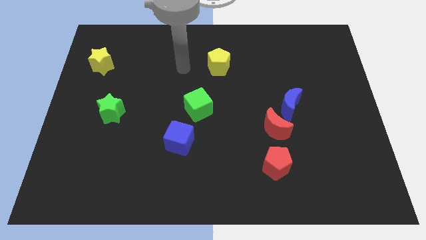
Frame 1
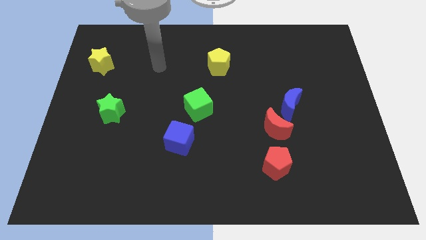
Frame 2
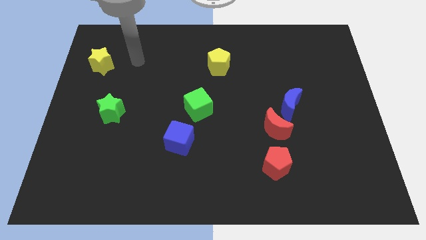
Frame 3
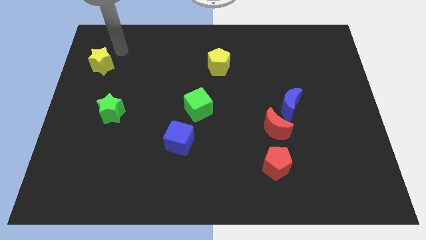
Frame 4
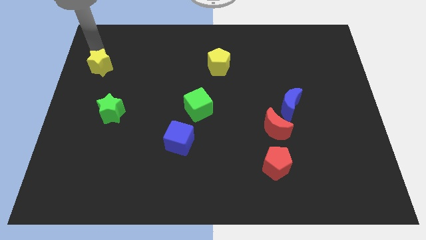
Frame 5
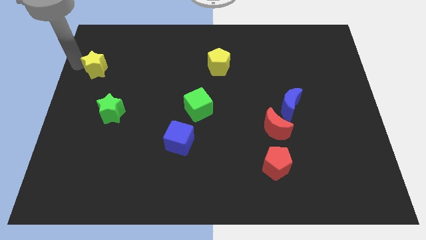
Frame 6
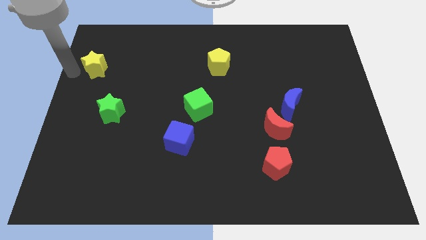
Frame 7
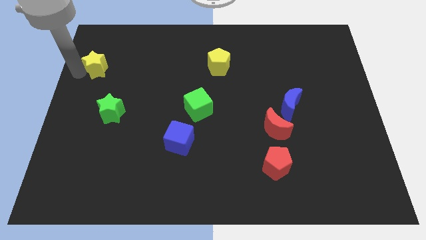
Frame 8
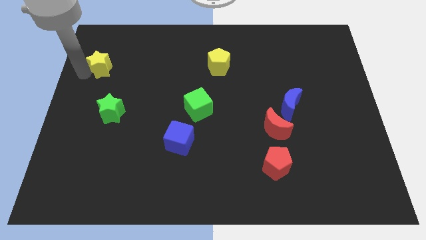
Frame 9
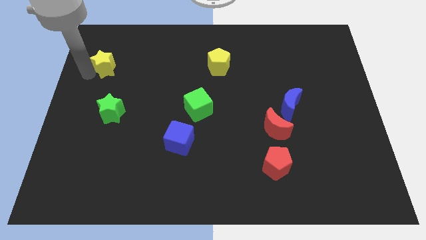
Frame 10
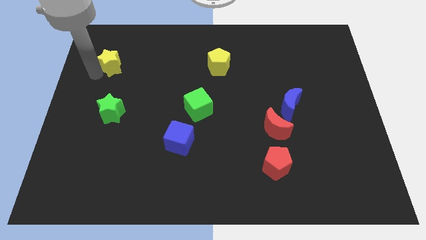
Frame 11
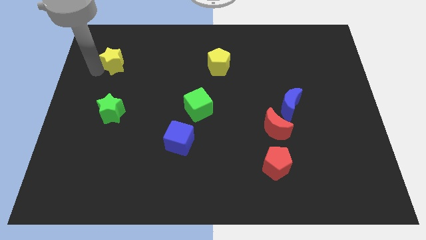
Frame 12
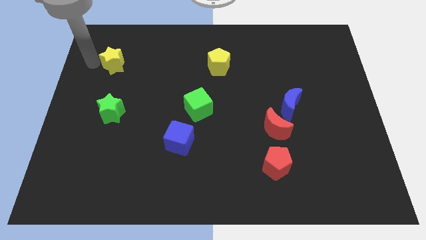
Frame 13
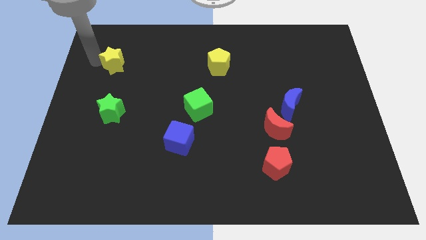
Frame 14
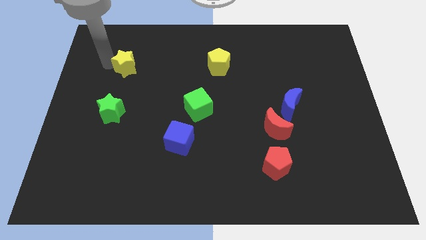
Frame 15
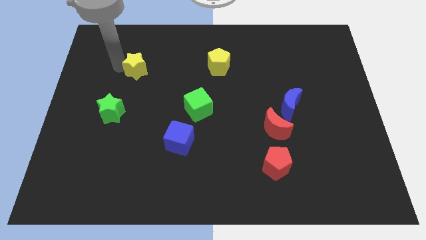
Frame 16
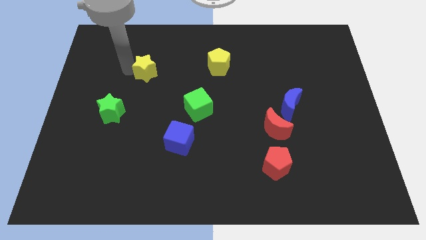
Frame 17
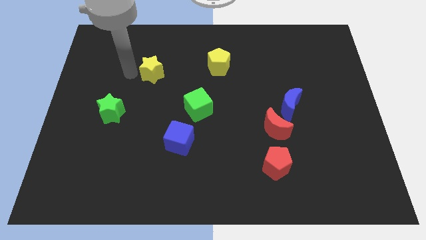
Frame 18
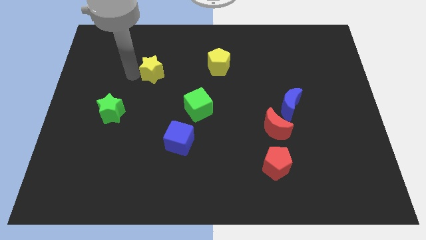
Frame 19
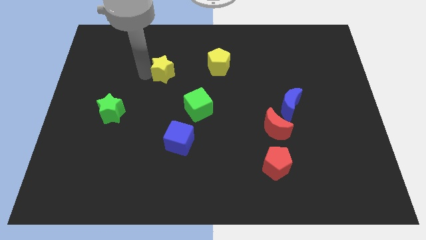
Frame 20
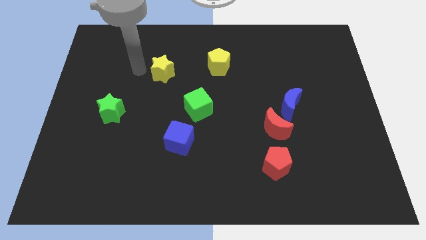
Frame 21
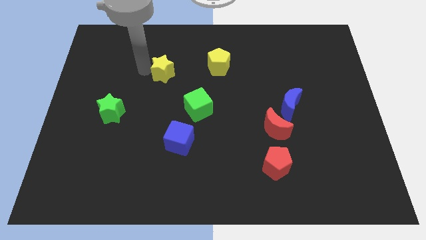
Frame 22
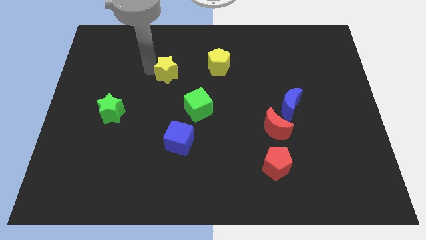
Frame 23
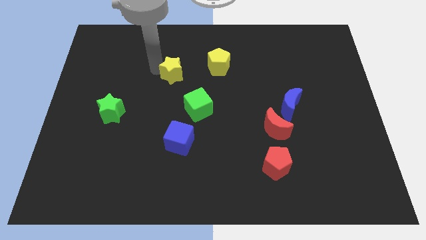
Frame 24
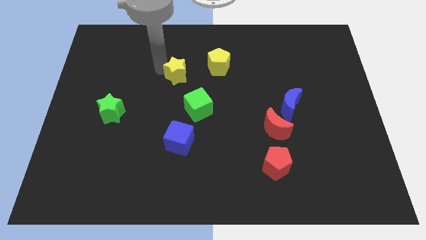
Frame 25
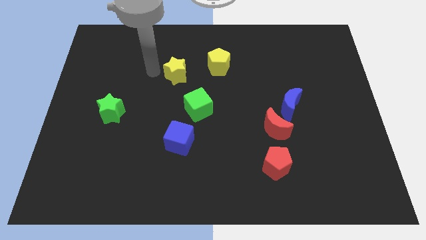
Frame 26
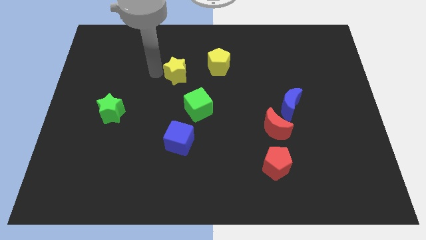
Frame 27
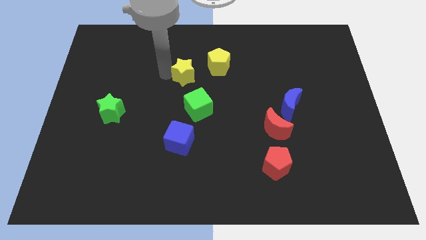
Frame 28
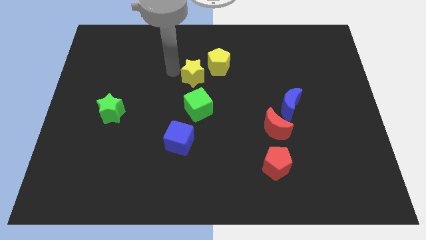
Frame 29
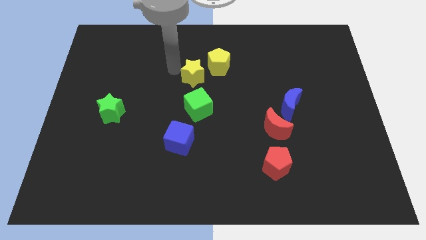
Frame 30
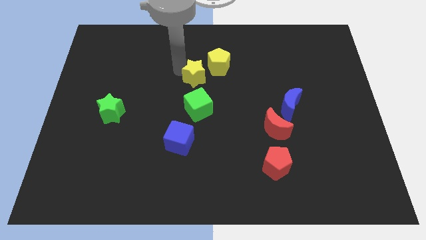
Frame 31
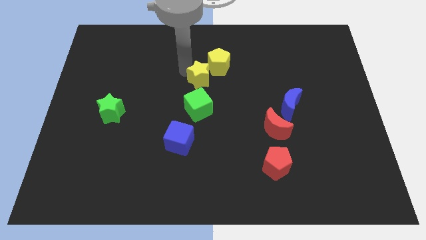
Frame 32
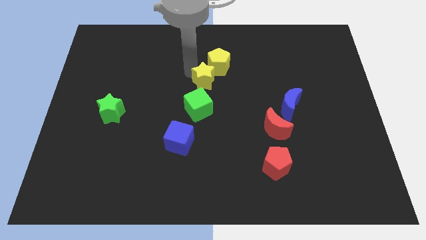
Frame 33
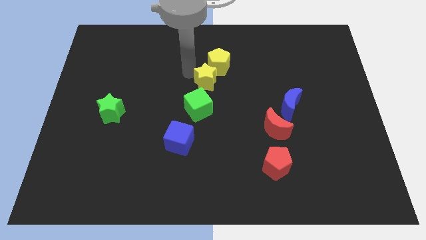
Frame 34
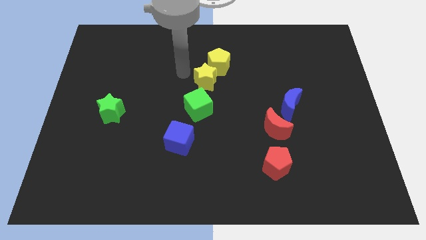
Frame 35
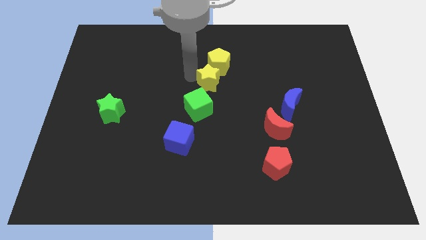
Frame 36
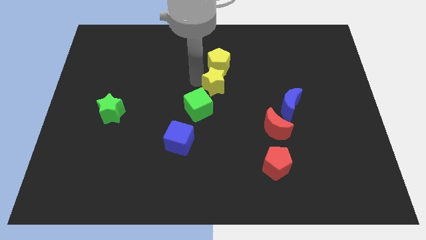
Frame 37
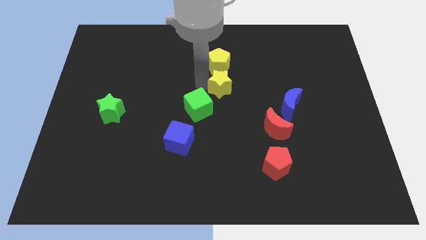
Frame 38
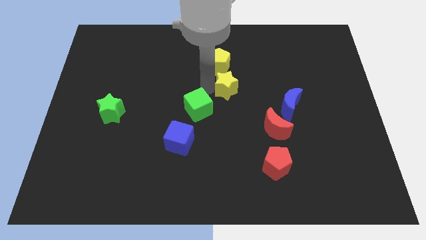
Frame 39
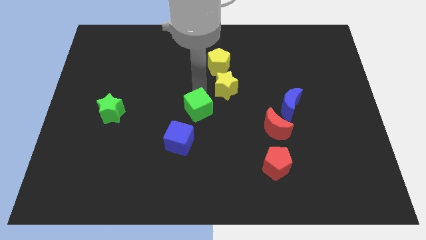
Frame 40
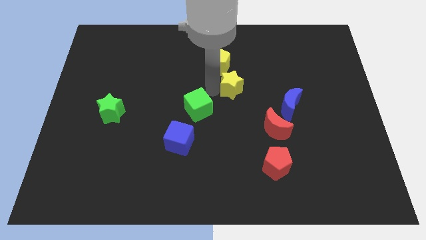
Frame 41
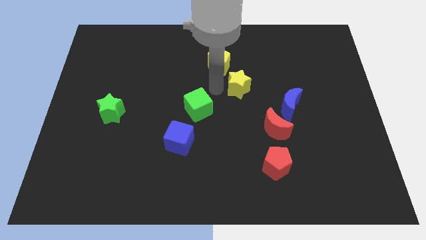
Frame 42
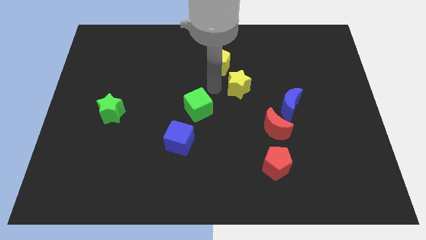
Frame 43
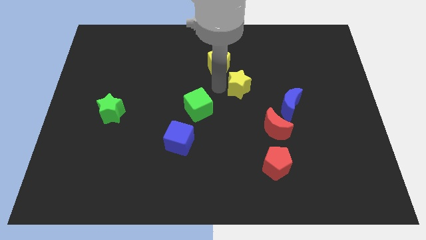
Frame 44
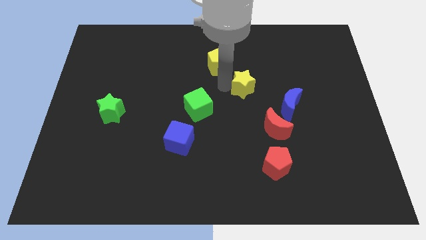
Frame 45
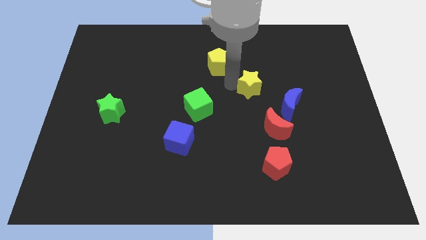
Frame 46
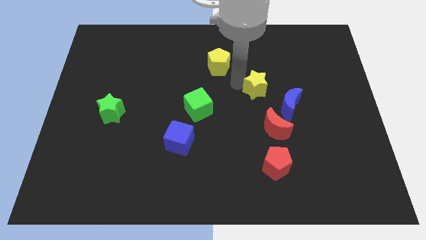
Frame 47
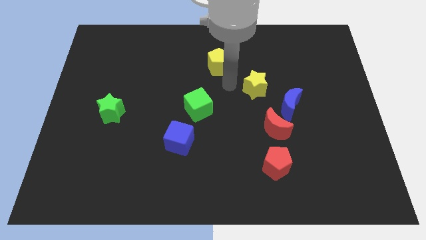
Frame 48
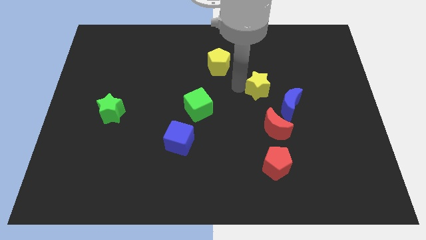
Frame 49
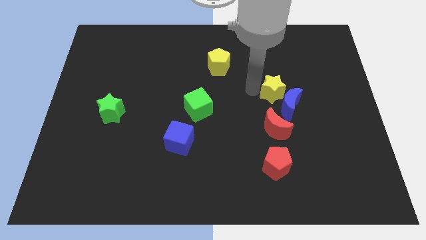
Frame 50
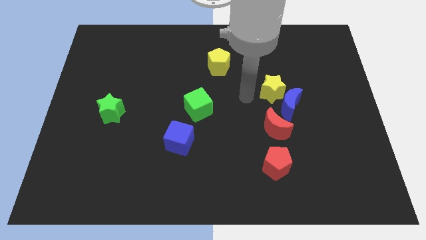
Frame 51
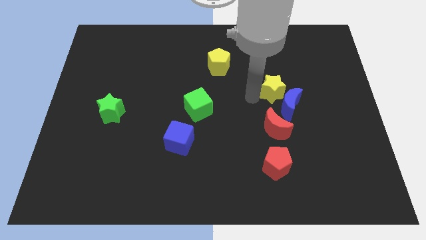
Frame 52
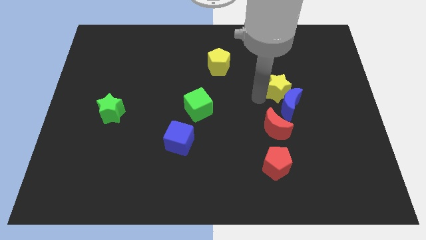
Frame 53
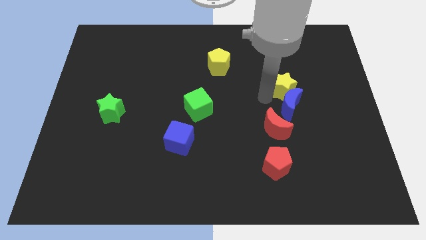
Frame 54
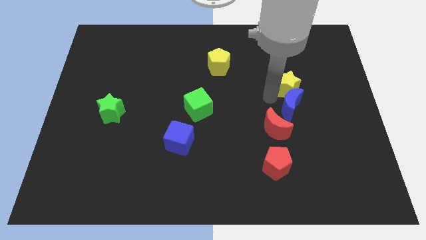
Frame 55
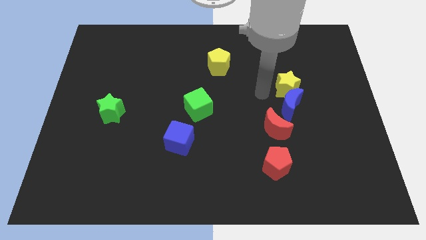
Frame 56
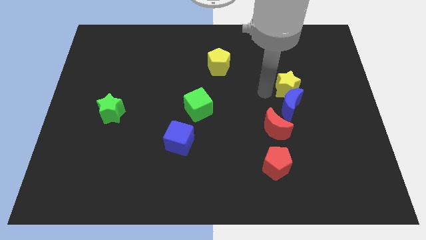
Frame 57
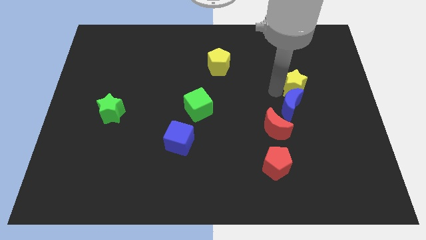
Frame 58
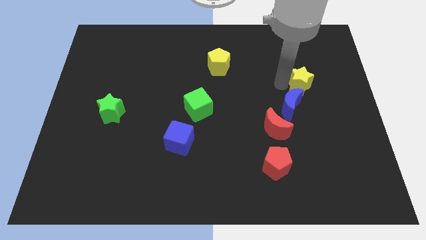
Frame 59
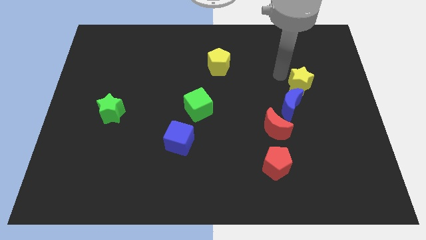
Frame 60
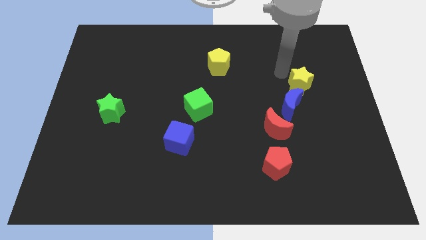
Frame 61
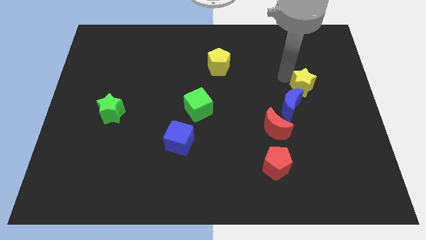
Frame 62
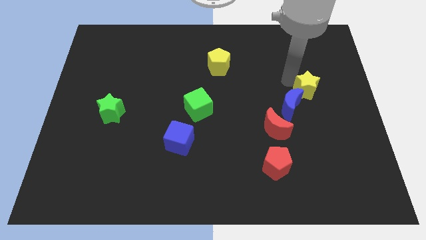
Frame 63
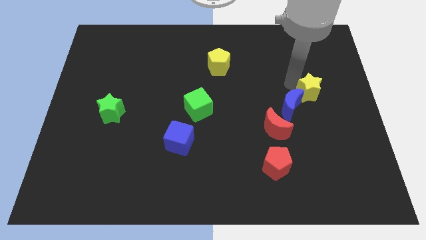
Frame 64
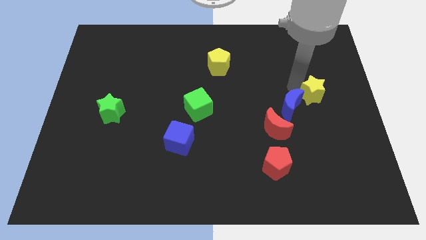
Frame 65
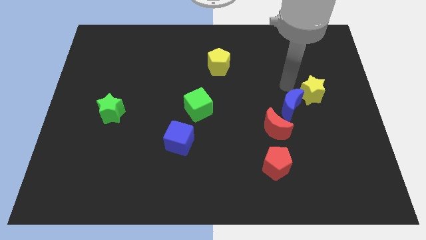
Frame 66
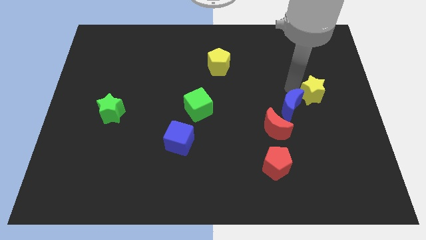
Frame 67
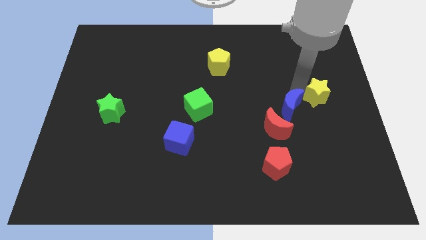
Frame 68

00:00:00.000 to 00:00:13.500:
move the yellow star to the center right
